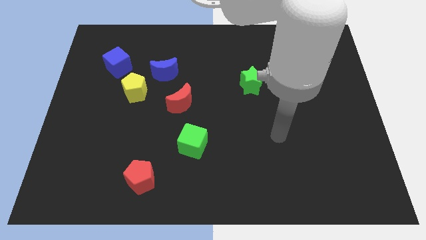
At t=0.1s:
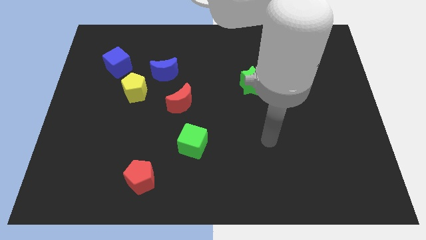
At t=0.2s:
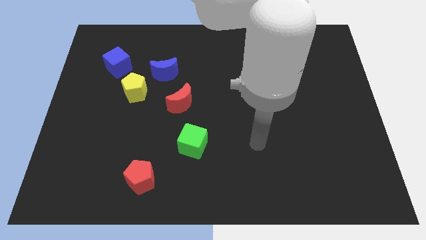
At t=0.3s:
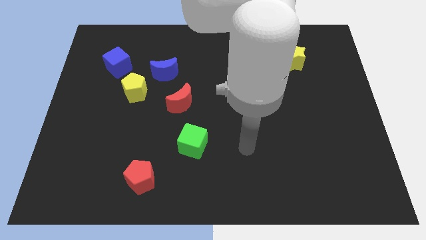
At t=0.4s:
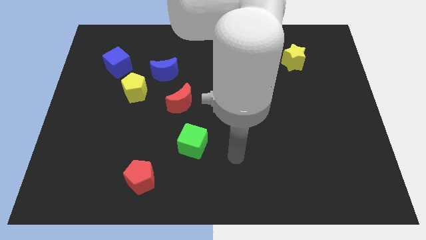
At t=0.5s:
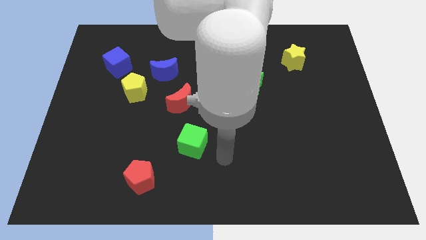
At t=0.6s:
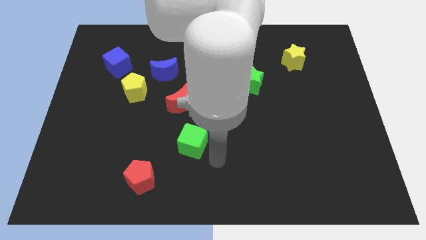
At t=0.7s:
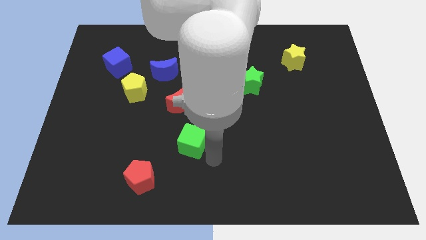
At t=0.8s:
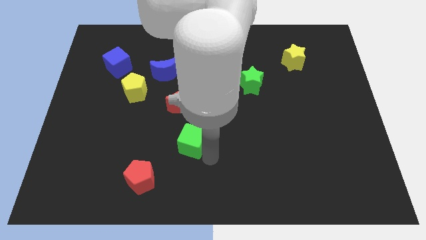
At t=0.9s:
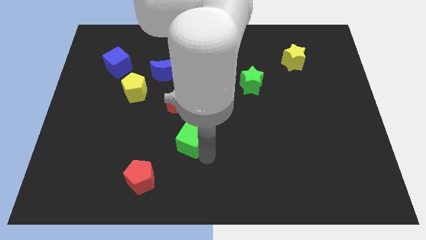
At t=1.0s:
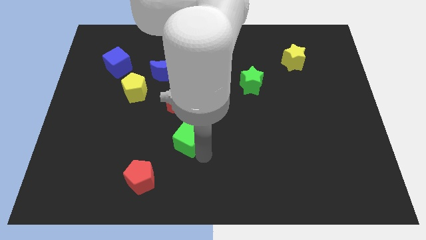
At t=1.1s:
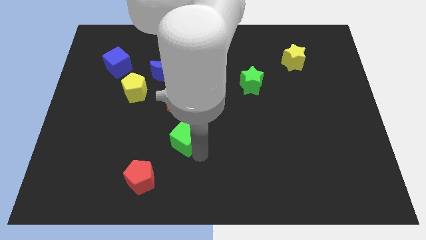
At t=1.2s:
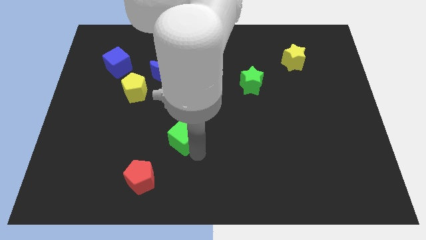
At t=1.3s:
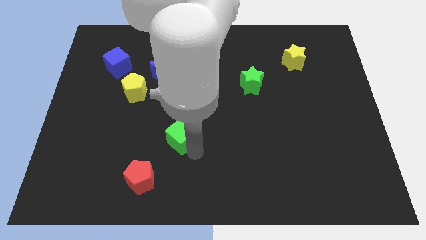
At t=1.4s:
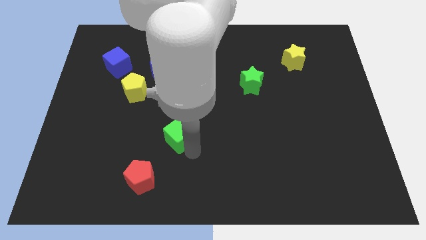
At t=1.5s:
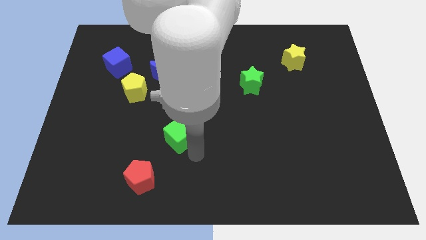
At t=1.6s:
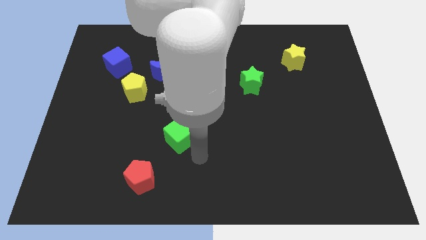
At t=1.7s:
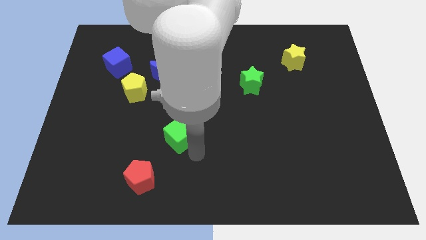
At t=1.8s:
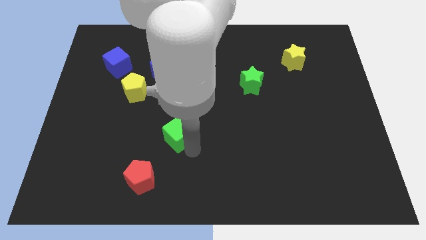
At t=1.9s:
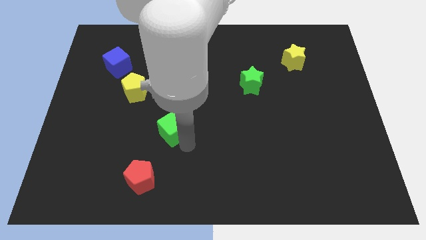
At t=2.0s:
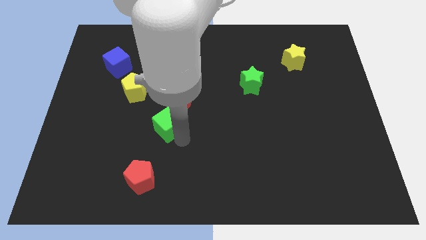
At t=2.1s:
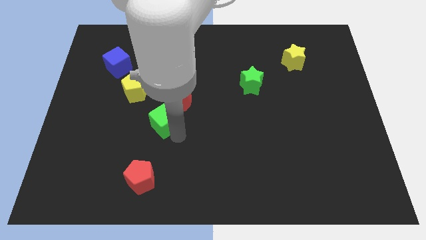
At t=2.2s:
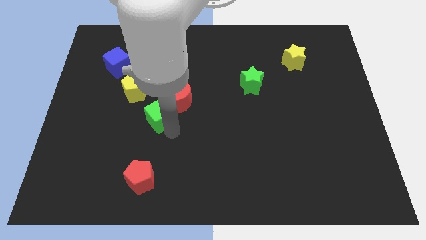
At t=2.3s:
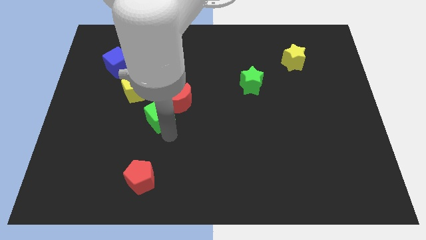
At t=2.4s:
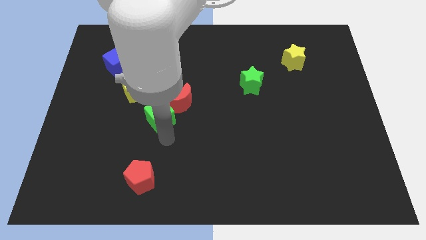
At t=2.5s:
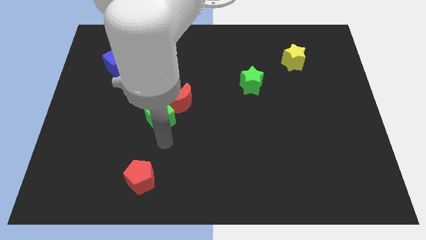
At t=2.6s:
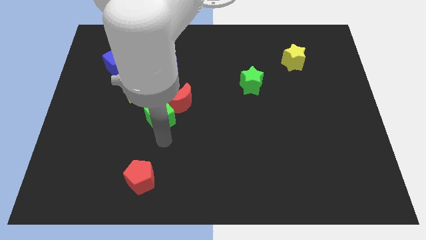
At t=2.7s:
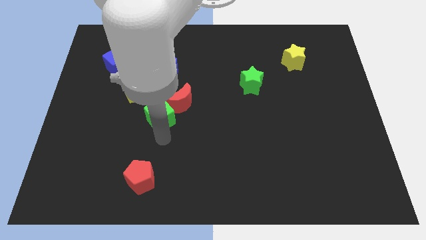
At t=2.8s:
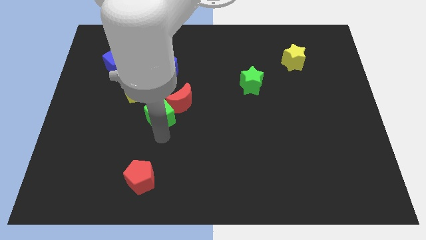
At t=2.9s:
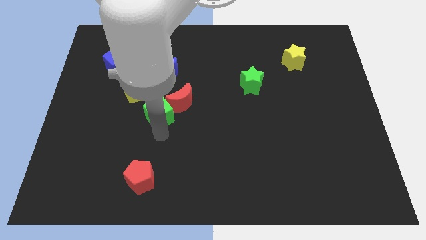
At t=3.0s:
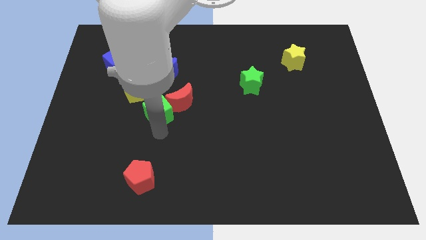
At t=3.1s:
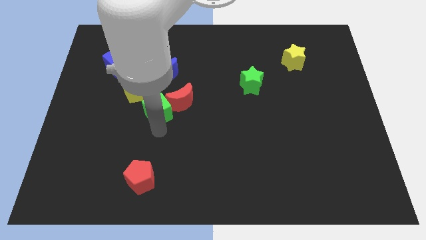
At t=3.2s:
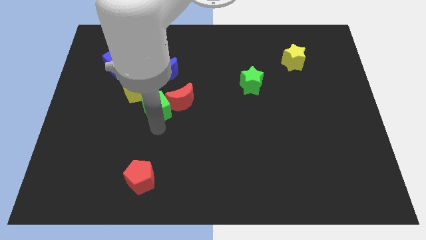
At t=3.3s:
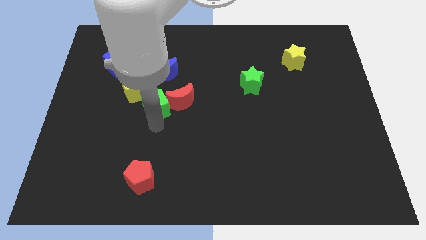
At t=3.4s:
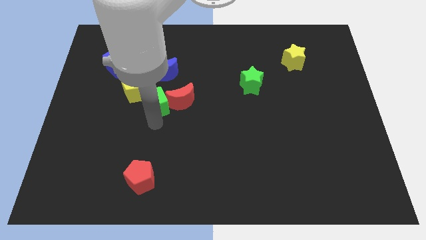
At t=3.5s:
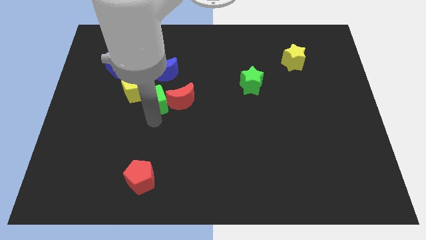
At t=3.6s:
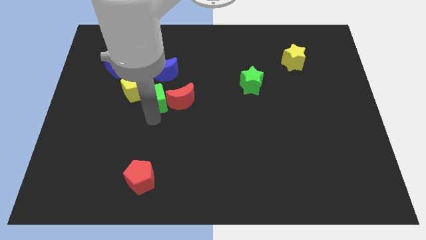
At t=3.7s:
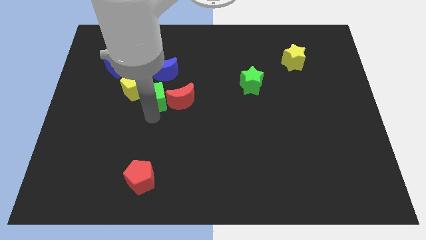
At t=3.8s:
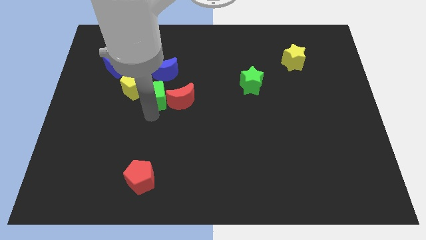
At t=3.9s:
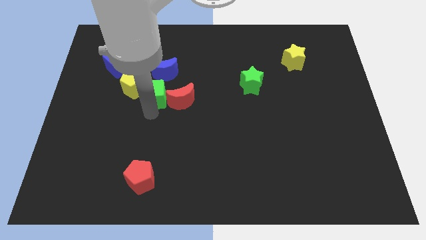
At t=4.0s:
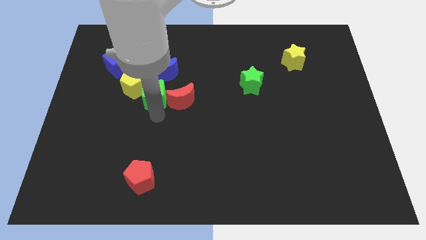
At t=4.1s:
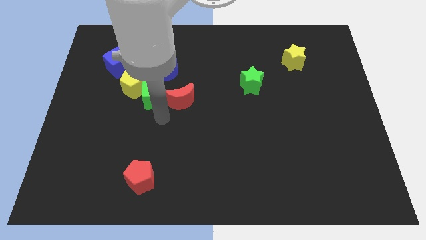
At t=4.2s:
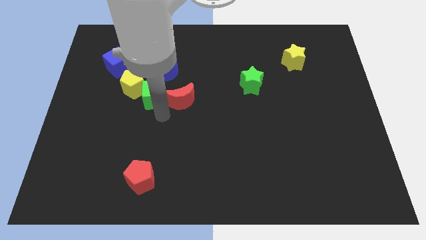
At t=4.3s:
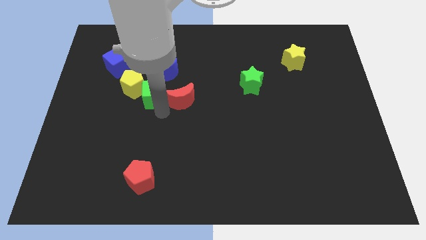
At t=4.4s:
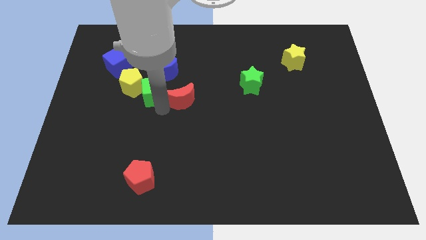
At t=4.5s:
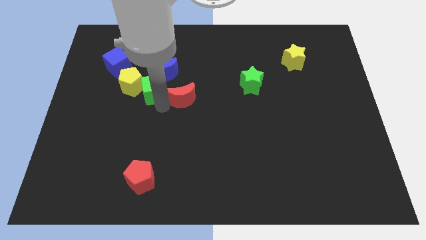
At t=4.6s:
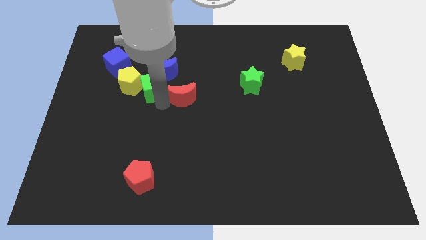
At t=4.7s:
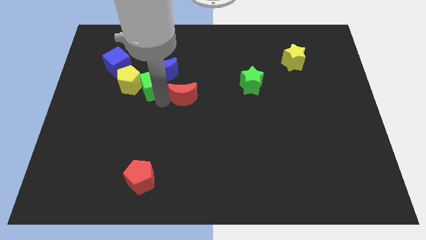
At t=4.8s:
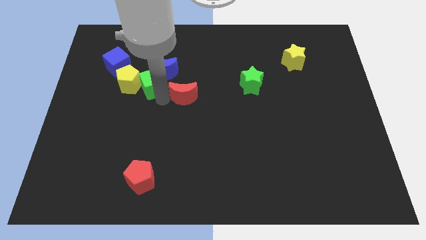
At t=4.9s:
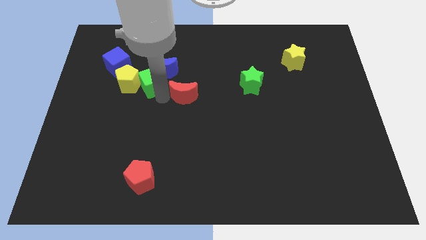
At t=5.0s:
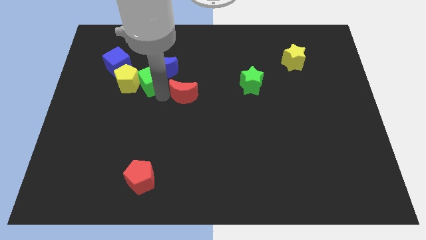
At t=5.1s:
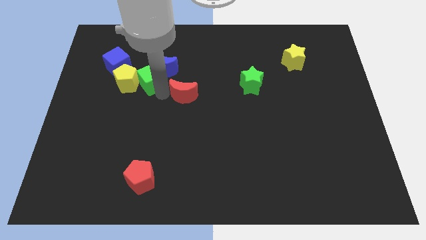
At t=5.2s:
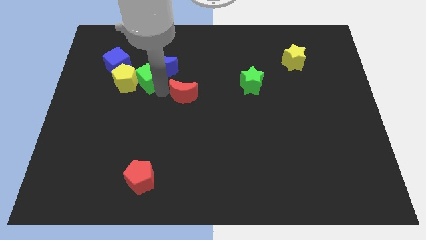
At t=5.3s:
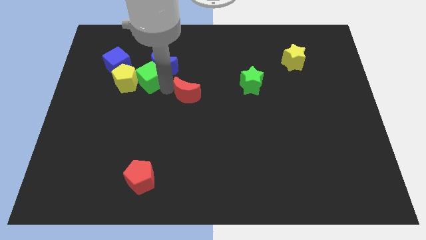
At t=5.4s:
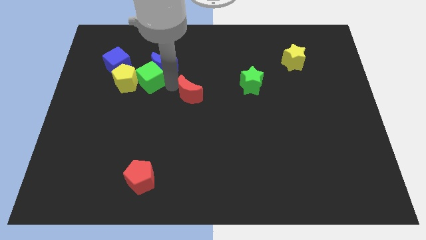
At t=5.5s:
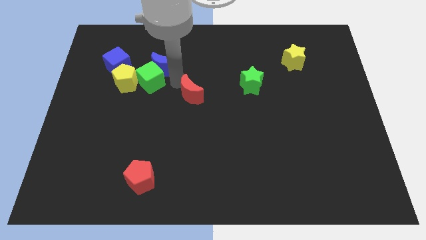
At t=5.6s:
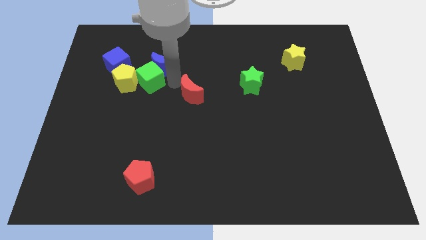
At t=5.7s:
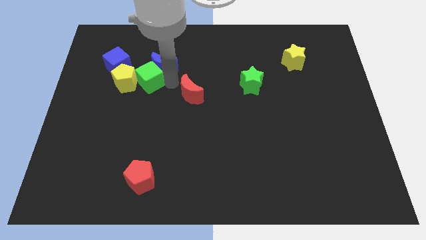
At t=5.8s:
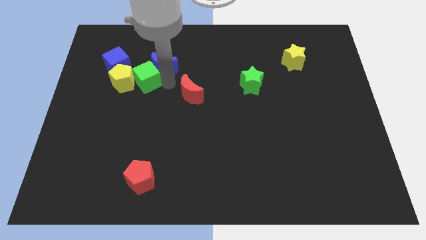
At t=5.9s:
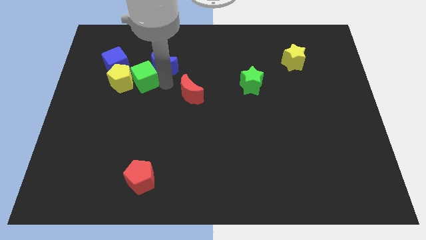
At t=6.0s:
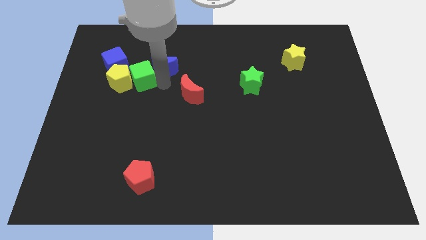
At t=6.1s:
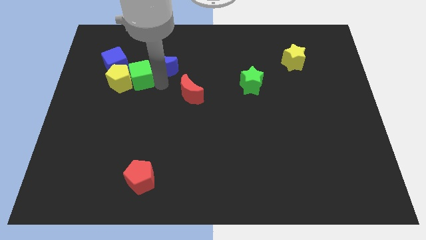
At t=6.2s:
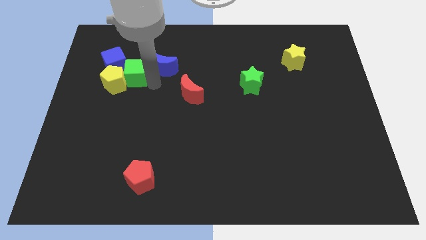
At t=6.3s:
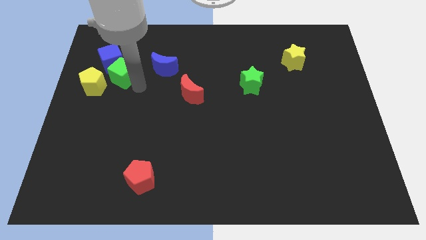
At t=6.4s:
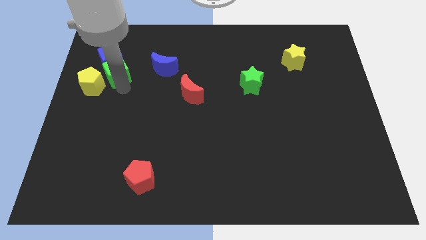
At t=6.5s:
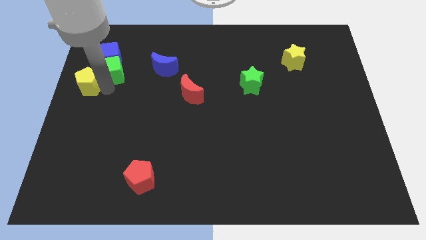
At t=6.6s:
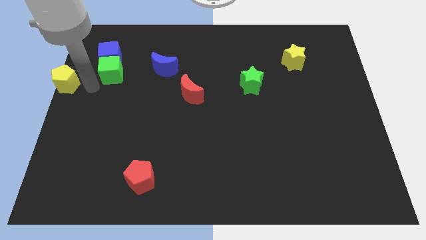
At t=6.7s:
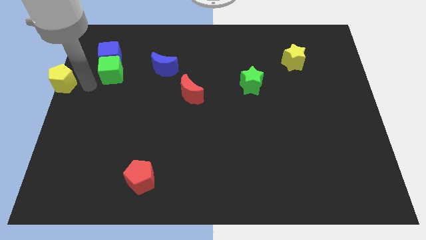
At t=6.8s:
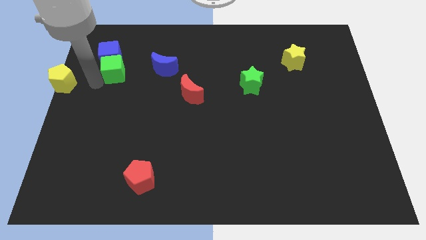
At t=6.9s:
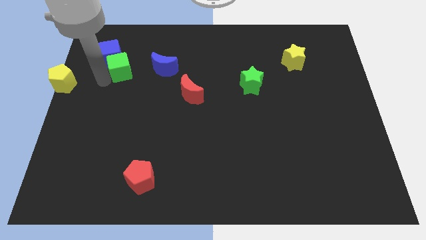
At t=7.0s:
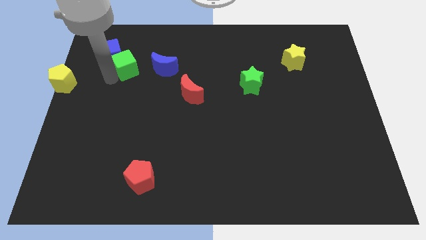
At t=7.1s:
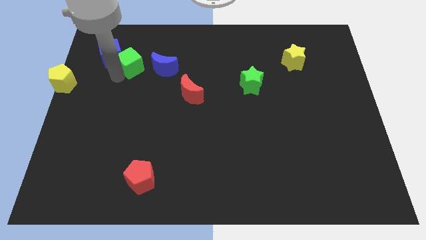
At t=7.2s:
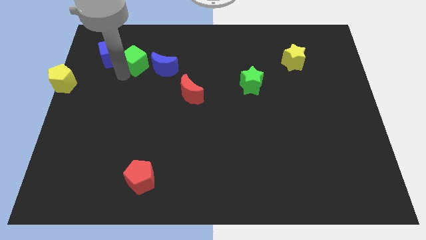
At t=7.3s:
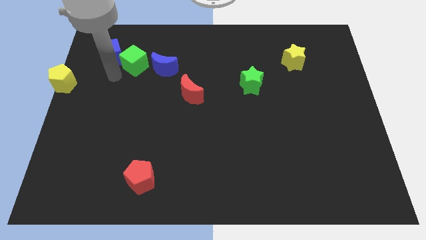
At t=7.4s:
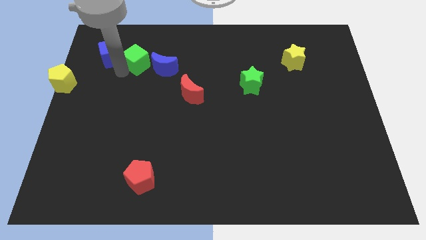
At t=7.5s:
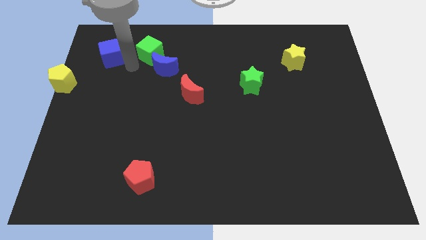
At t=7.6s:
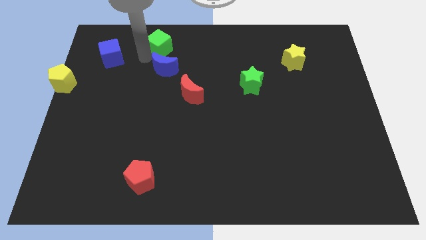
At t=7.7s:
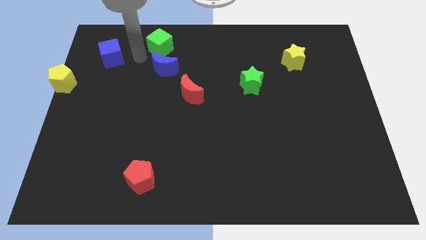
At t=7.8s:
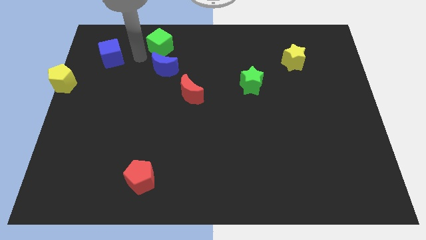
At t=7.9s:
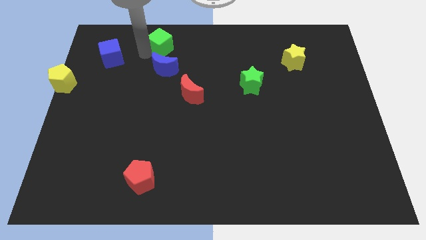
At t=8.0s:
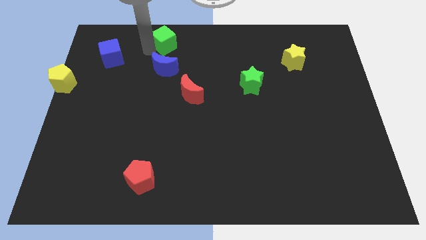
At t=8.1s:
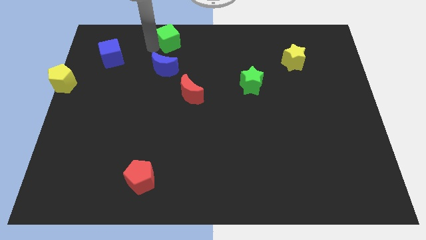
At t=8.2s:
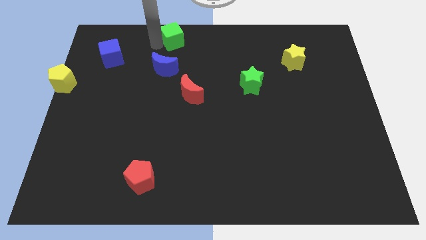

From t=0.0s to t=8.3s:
push the green cube to the top side
